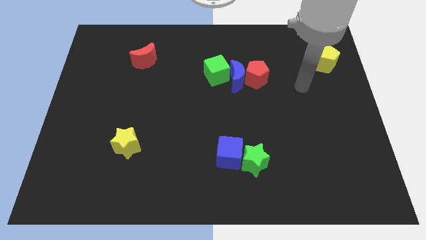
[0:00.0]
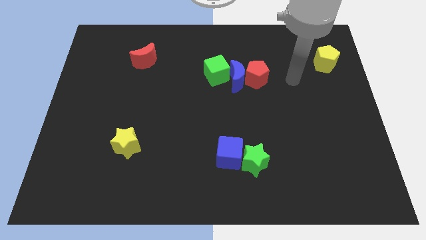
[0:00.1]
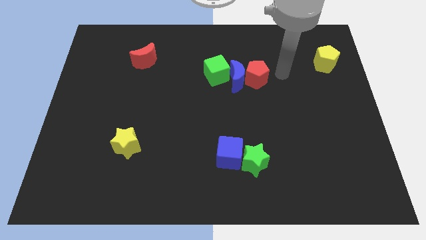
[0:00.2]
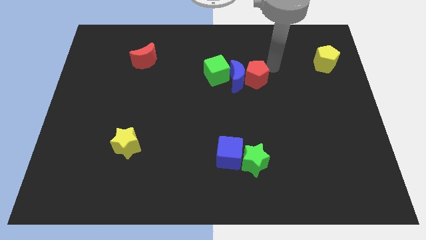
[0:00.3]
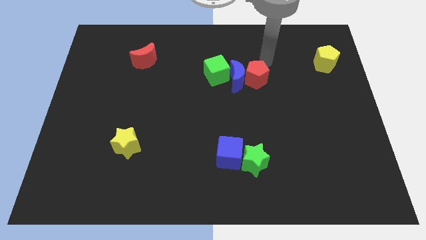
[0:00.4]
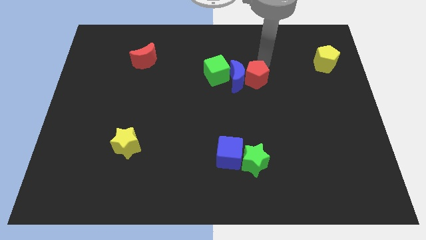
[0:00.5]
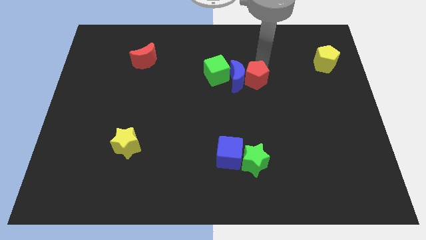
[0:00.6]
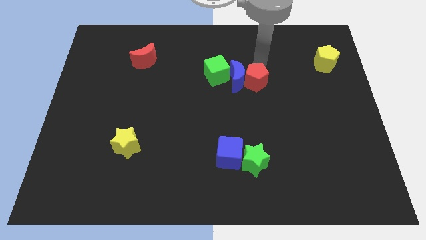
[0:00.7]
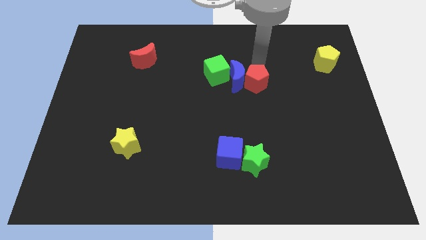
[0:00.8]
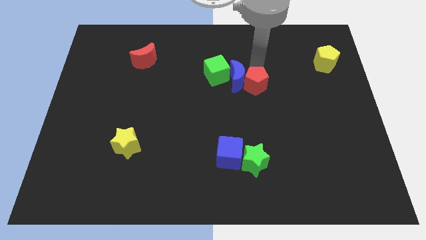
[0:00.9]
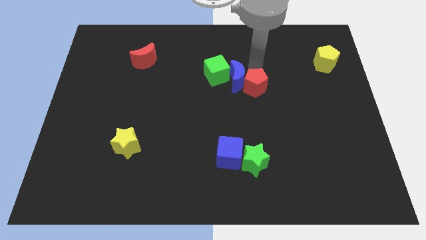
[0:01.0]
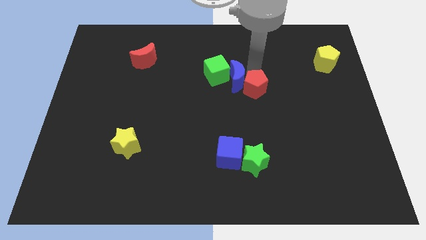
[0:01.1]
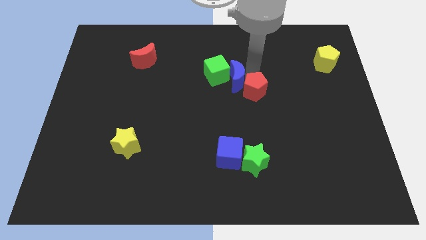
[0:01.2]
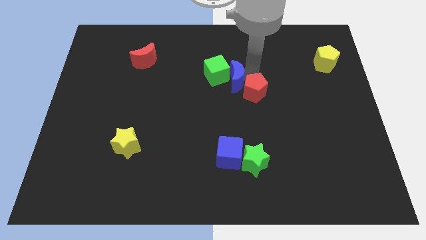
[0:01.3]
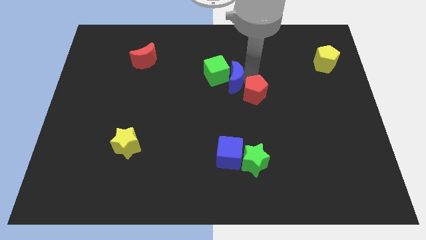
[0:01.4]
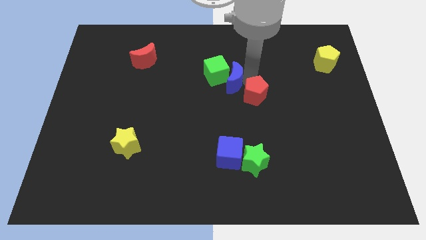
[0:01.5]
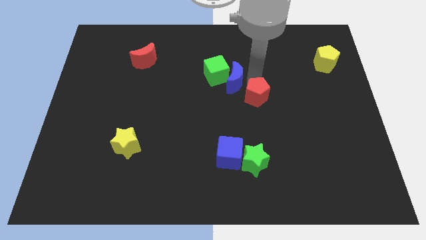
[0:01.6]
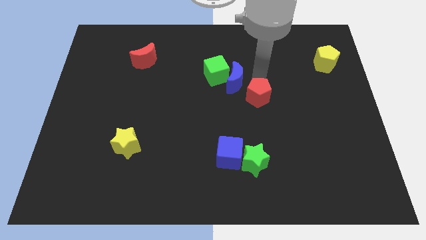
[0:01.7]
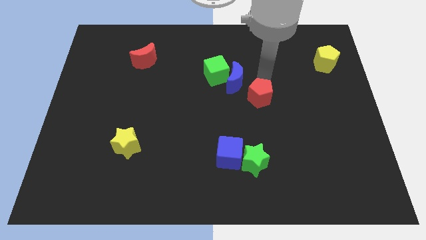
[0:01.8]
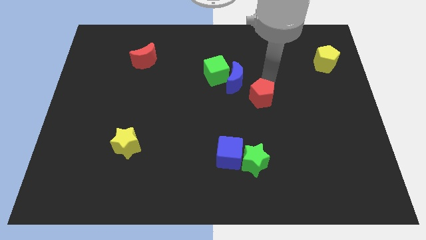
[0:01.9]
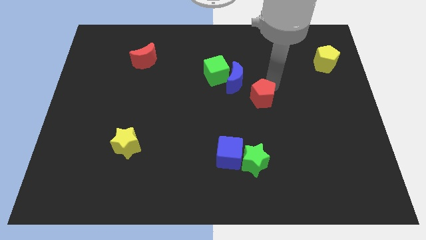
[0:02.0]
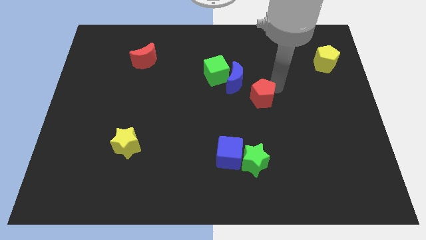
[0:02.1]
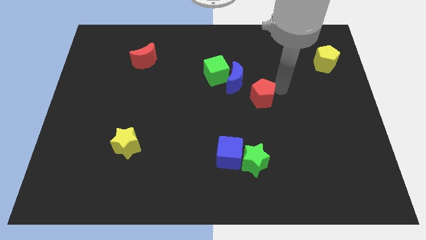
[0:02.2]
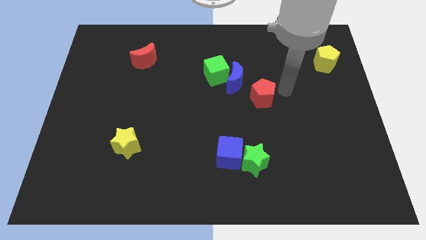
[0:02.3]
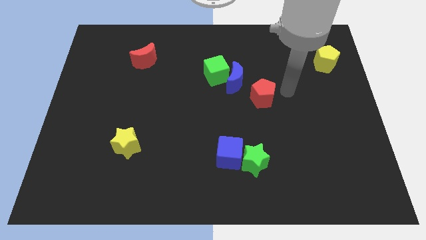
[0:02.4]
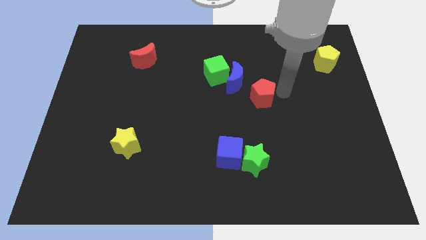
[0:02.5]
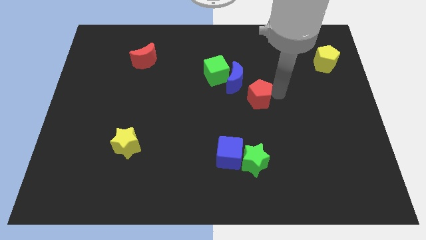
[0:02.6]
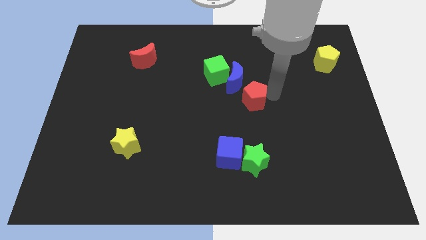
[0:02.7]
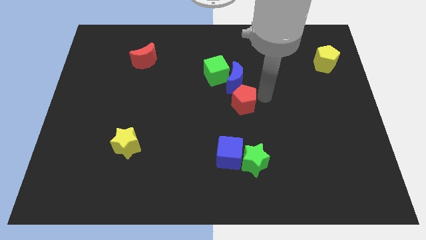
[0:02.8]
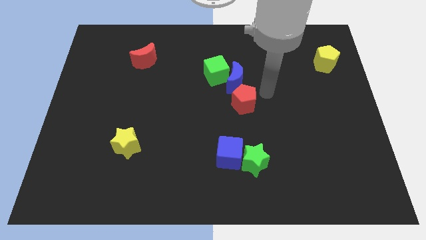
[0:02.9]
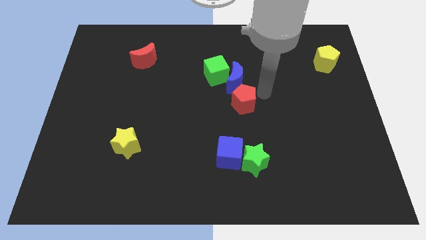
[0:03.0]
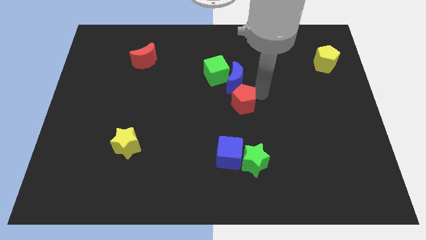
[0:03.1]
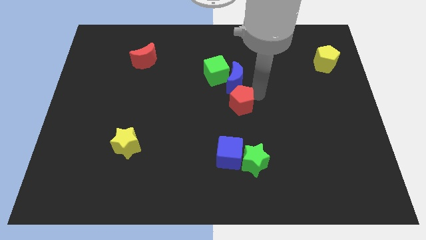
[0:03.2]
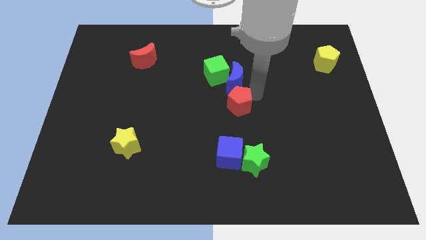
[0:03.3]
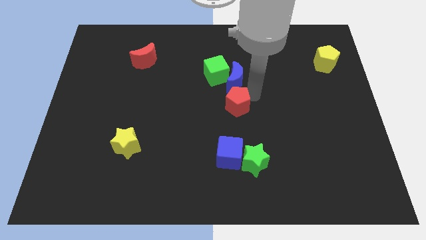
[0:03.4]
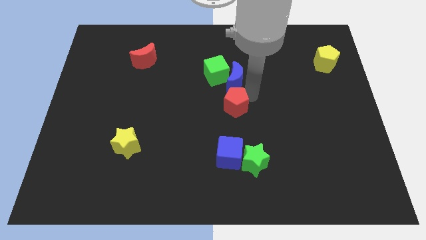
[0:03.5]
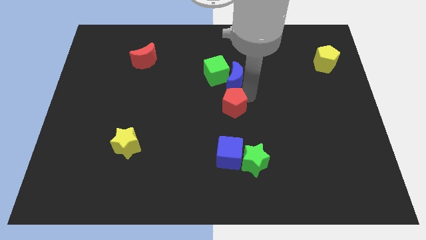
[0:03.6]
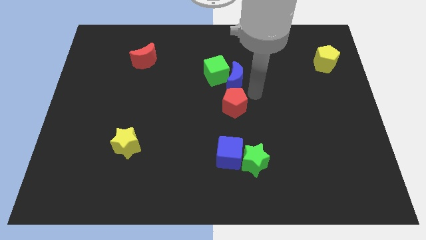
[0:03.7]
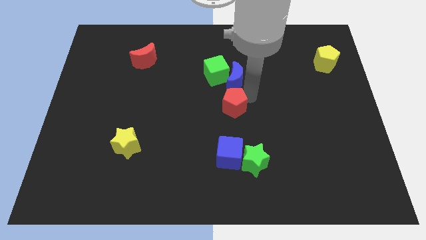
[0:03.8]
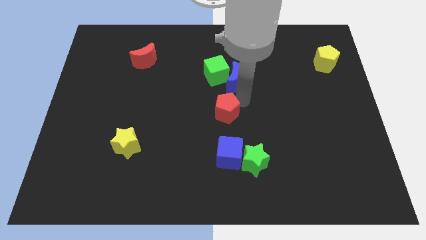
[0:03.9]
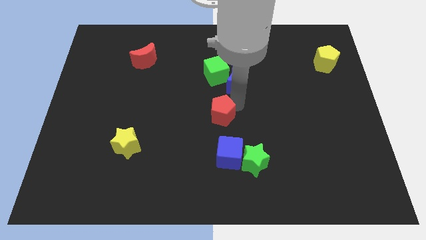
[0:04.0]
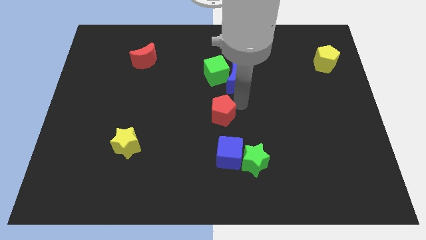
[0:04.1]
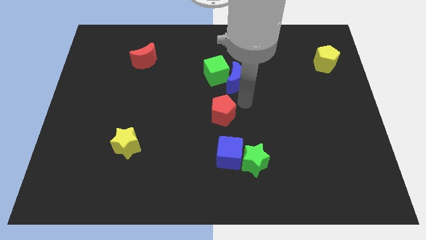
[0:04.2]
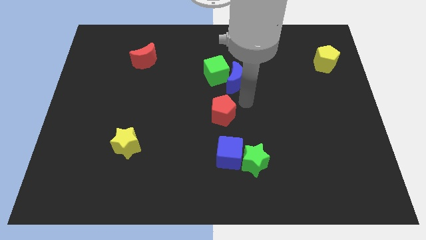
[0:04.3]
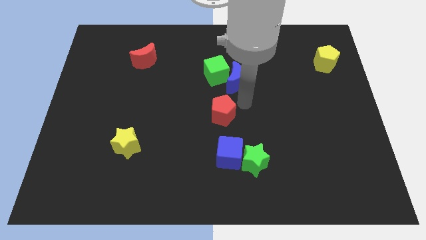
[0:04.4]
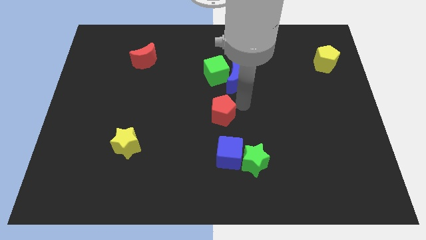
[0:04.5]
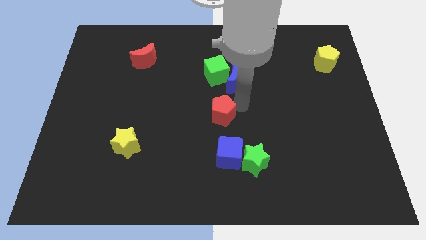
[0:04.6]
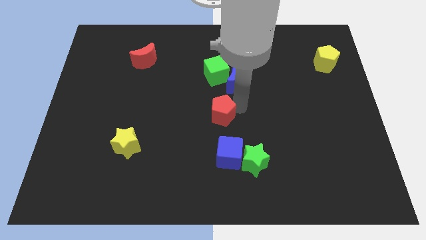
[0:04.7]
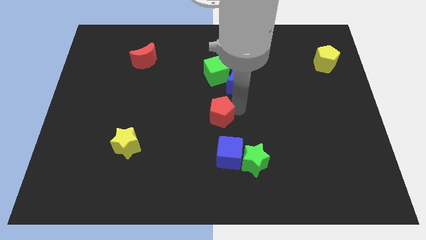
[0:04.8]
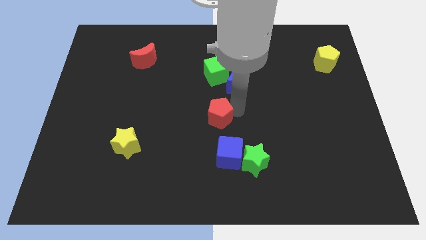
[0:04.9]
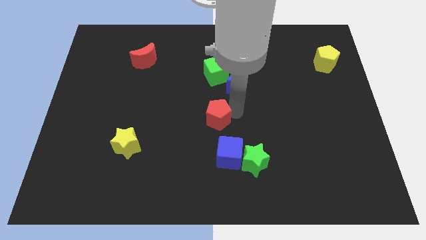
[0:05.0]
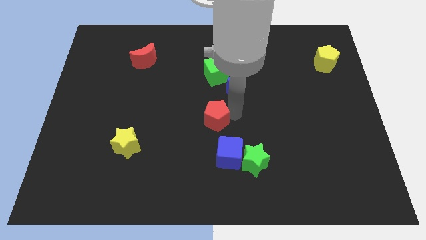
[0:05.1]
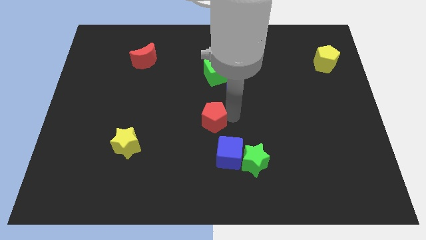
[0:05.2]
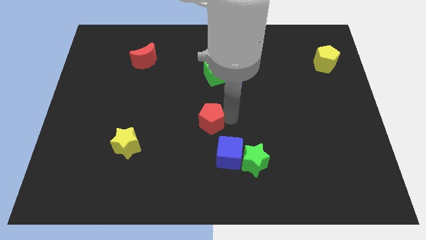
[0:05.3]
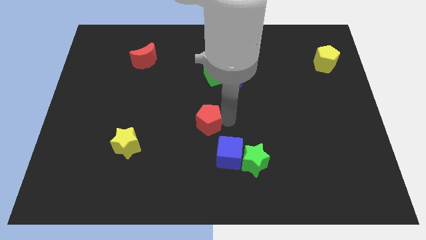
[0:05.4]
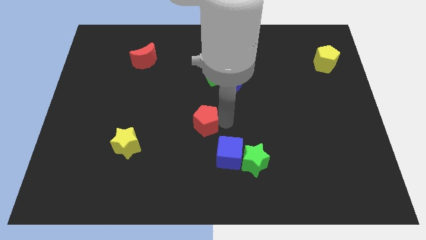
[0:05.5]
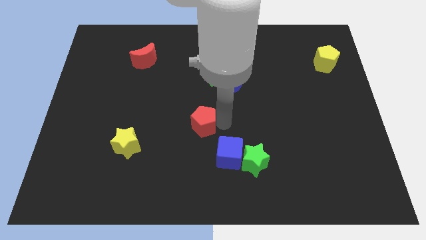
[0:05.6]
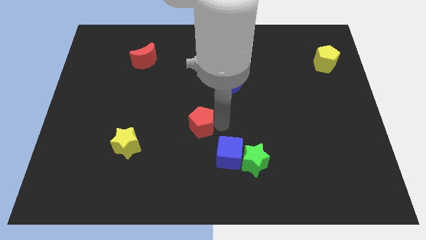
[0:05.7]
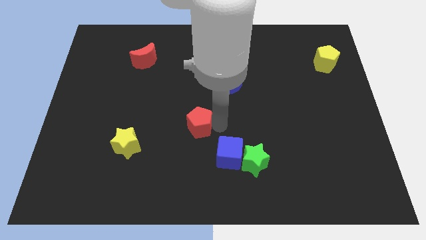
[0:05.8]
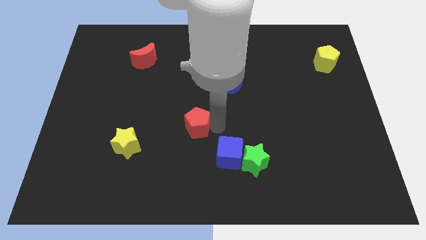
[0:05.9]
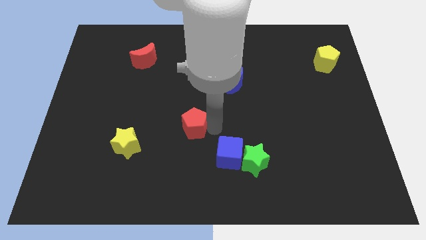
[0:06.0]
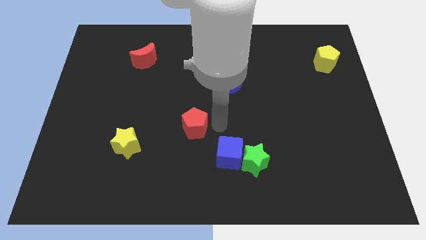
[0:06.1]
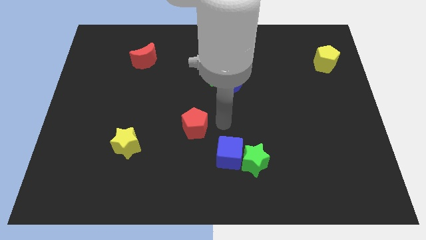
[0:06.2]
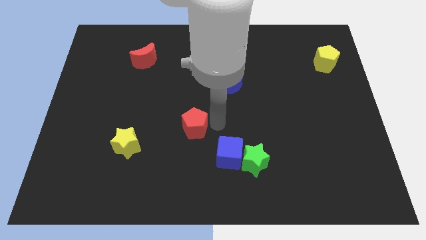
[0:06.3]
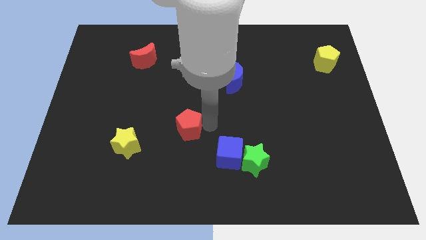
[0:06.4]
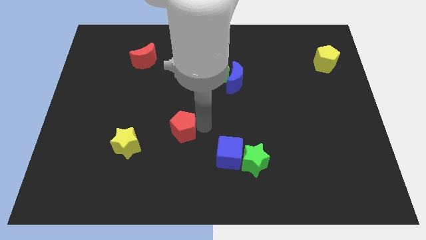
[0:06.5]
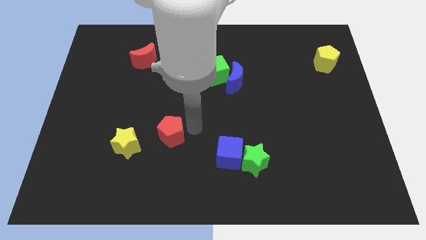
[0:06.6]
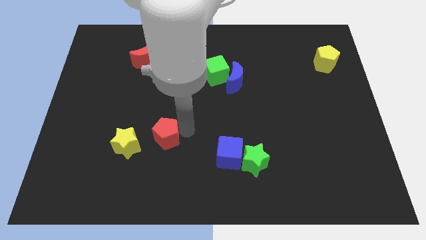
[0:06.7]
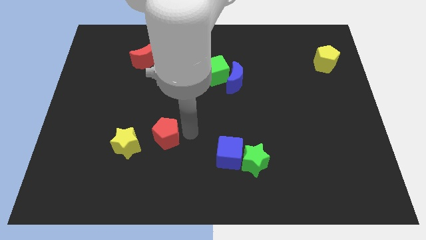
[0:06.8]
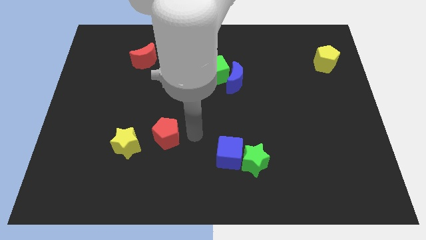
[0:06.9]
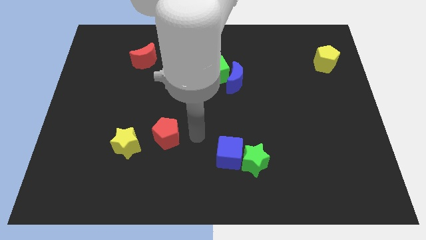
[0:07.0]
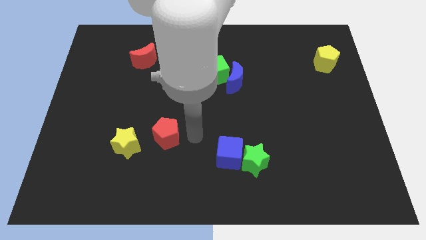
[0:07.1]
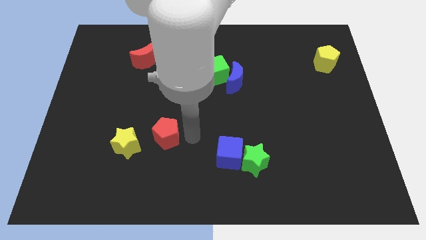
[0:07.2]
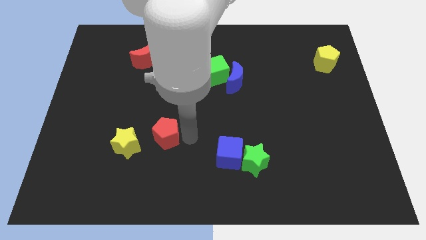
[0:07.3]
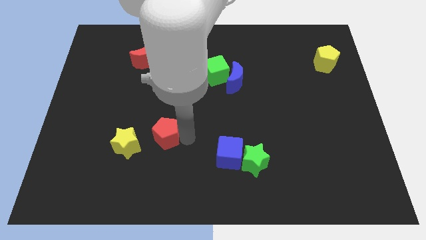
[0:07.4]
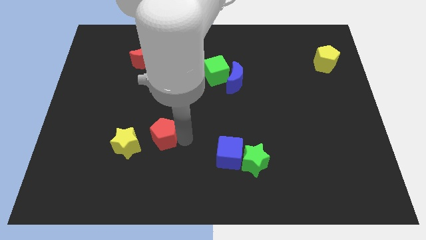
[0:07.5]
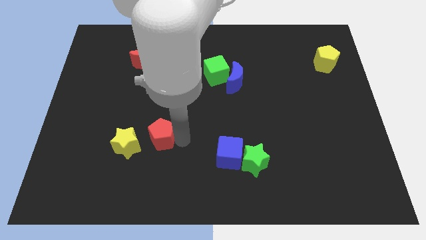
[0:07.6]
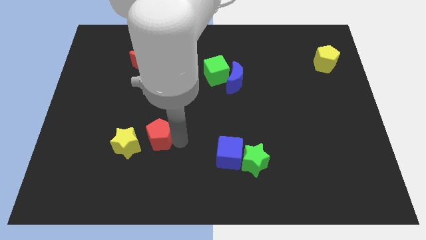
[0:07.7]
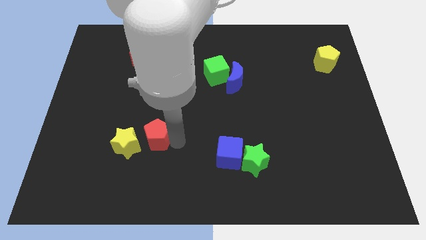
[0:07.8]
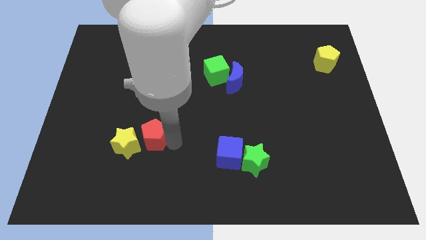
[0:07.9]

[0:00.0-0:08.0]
move the red pentagon to the yellow star
